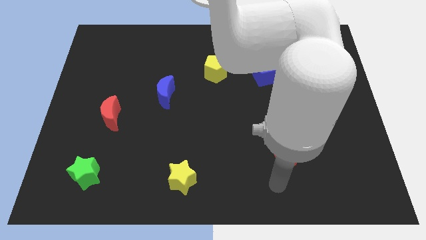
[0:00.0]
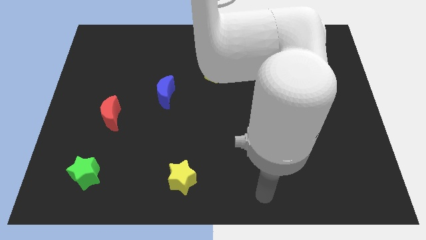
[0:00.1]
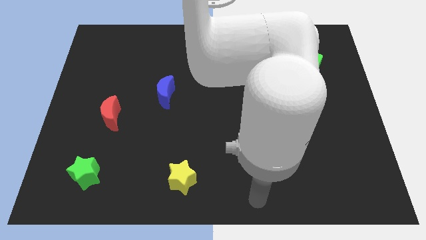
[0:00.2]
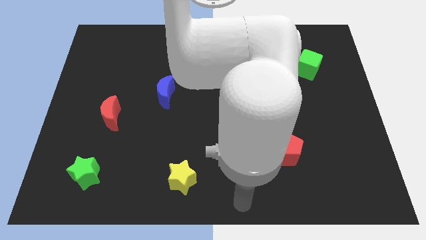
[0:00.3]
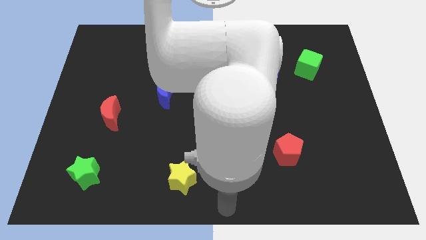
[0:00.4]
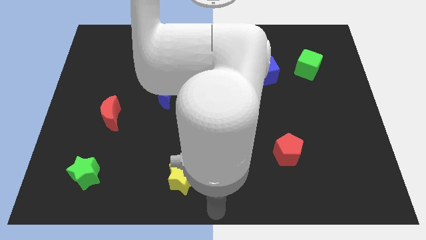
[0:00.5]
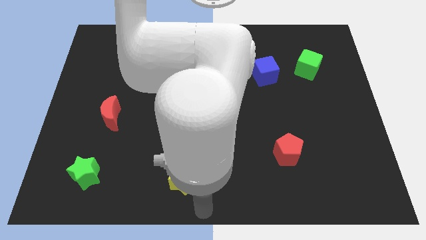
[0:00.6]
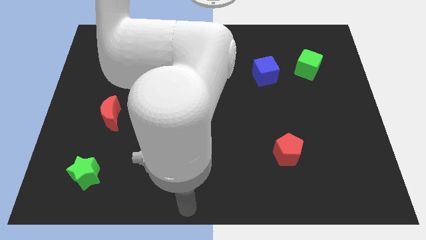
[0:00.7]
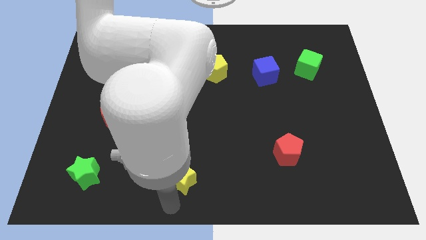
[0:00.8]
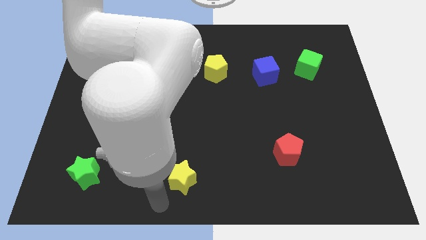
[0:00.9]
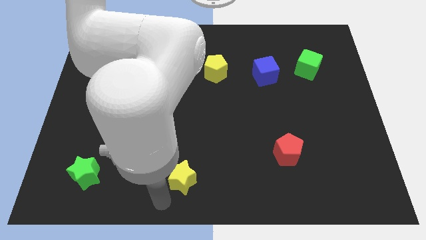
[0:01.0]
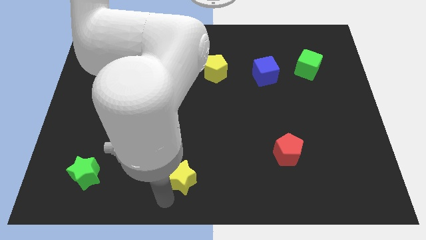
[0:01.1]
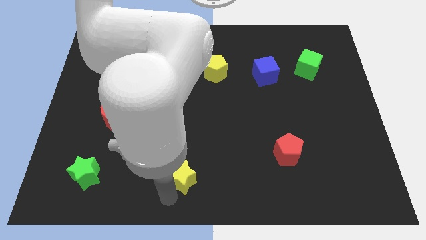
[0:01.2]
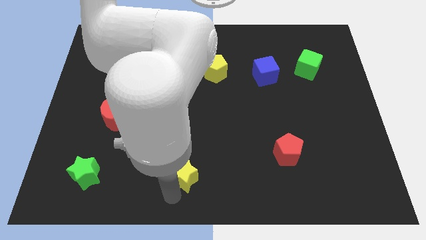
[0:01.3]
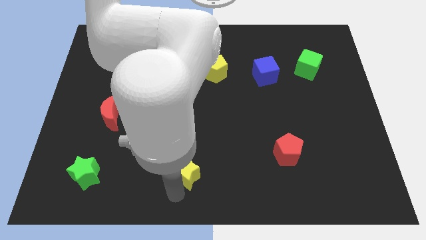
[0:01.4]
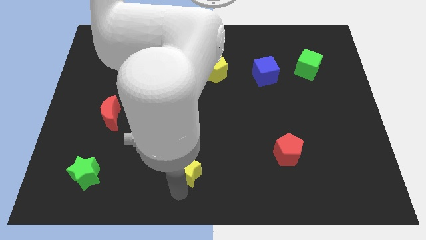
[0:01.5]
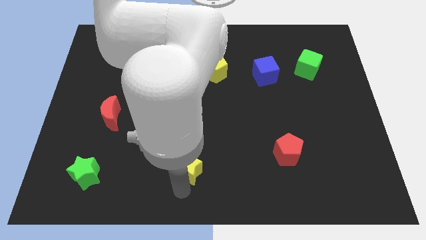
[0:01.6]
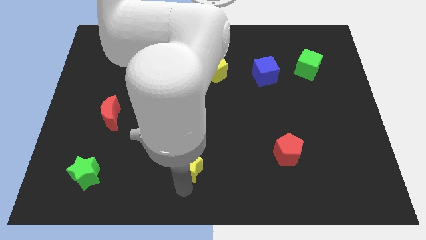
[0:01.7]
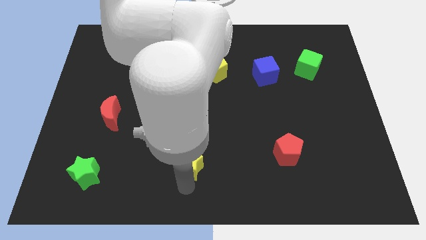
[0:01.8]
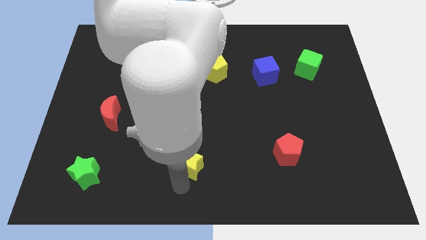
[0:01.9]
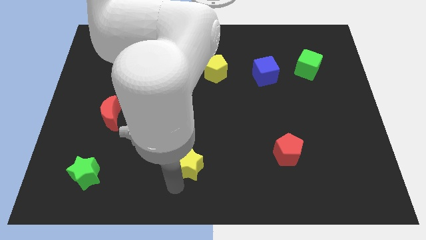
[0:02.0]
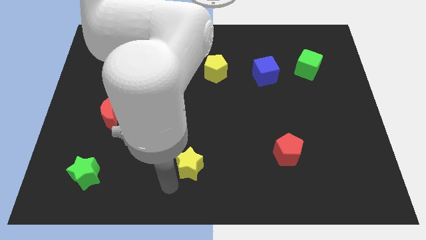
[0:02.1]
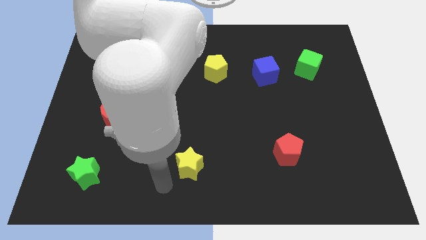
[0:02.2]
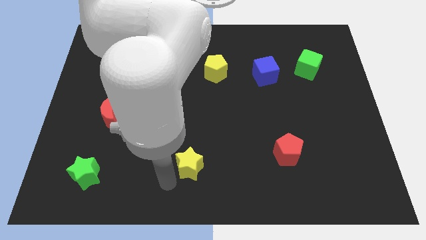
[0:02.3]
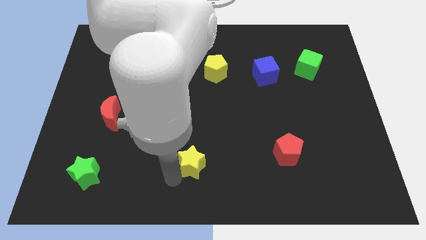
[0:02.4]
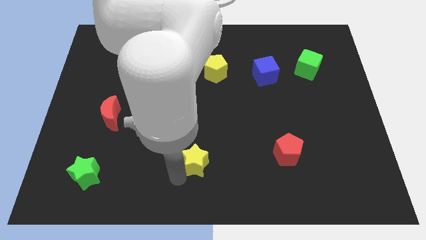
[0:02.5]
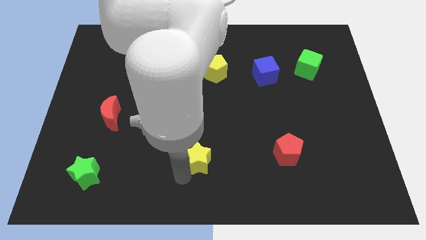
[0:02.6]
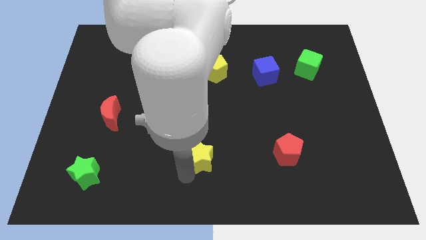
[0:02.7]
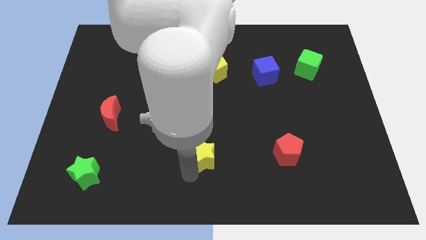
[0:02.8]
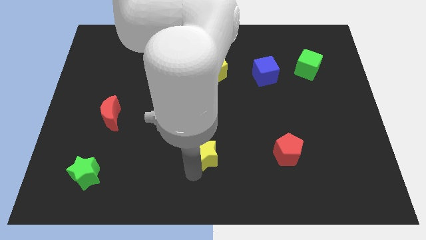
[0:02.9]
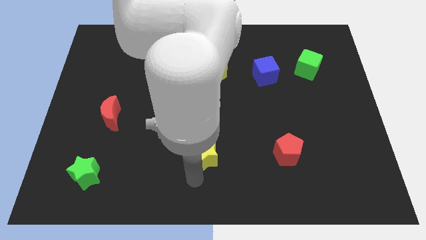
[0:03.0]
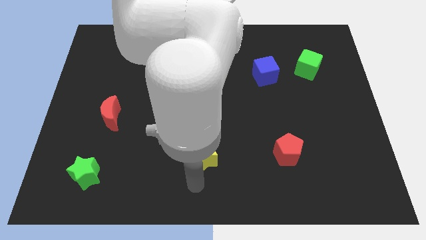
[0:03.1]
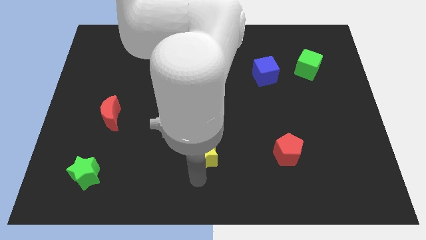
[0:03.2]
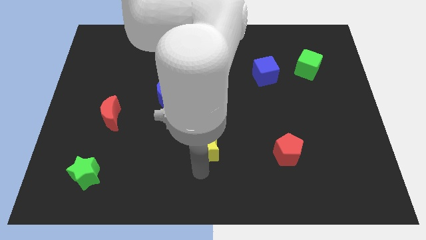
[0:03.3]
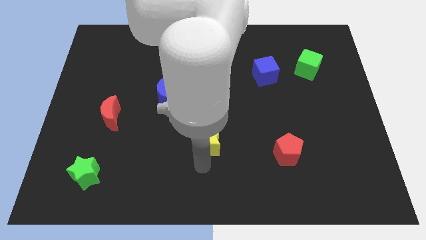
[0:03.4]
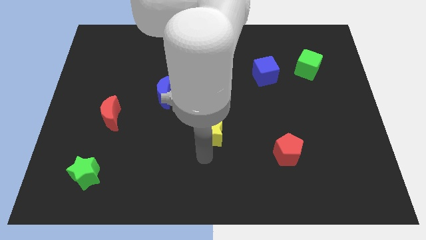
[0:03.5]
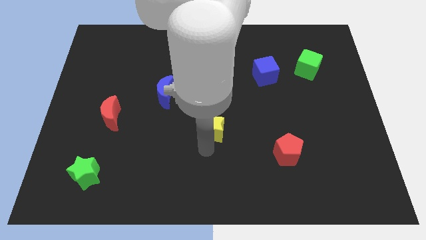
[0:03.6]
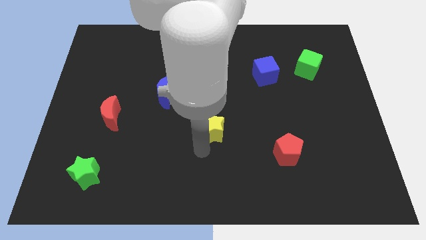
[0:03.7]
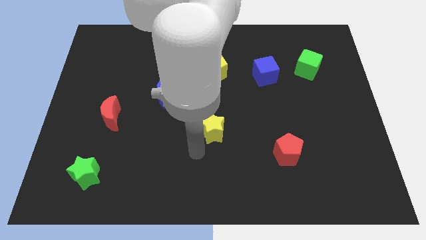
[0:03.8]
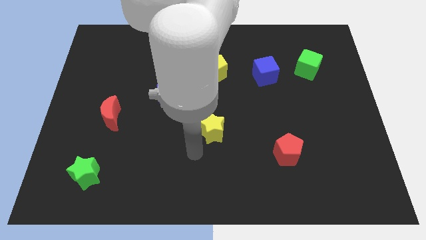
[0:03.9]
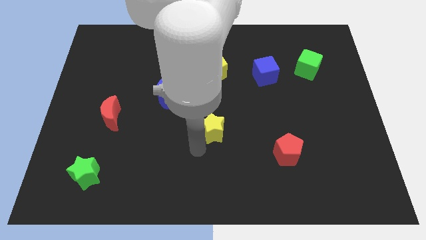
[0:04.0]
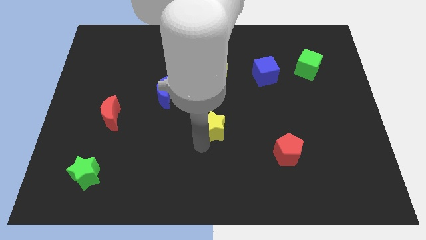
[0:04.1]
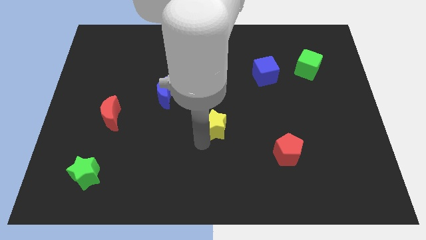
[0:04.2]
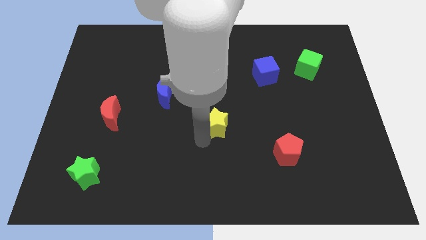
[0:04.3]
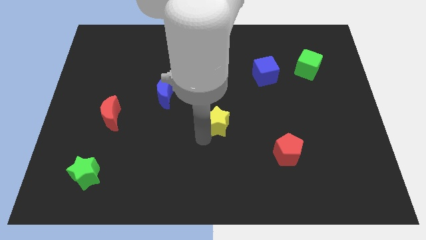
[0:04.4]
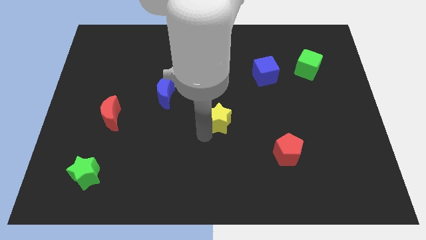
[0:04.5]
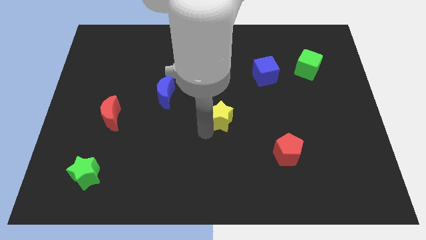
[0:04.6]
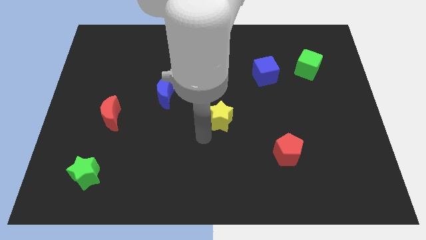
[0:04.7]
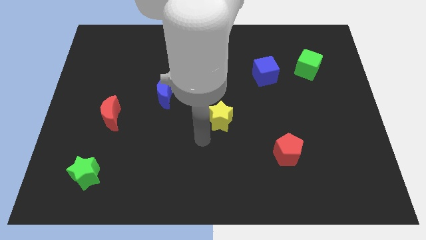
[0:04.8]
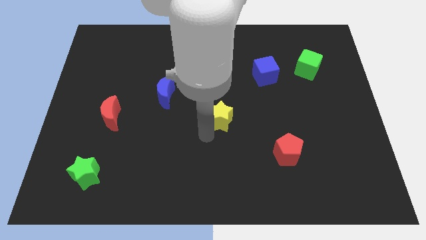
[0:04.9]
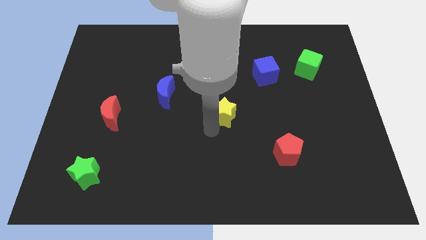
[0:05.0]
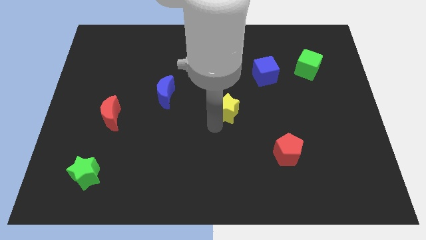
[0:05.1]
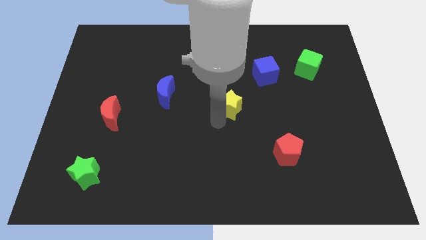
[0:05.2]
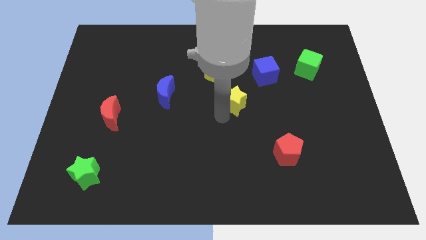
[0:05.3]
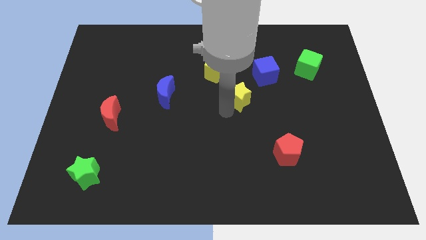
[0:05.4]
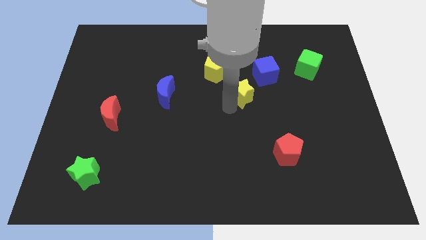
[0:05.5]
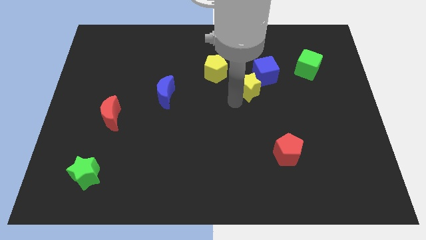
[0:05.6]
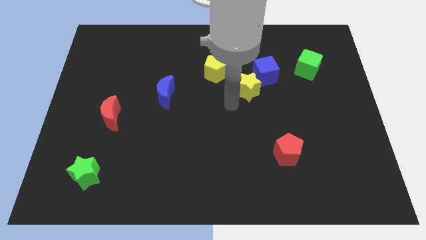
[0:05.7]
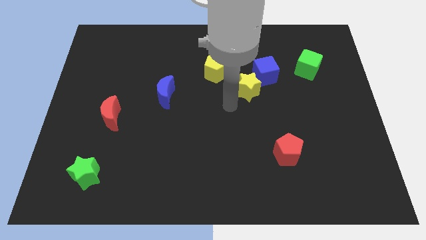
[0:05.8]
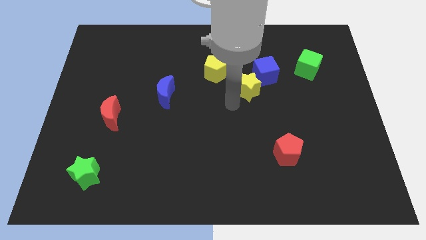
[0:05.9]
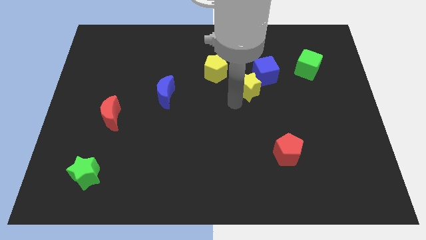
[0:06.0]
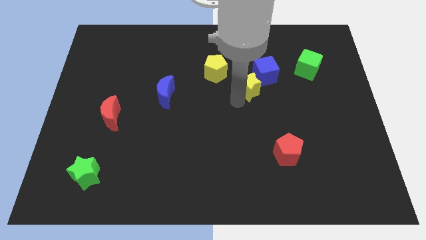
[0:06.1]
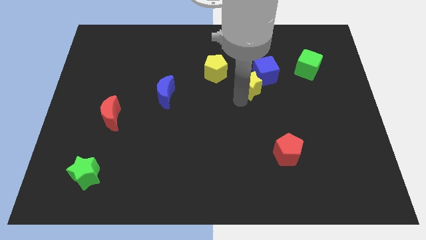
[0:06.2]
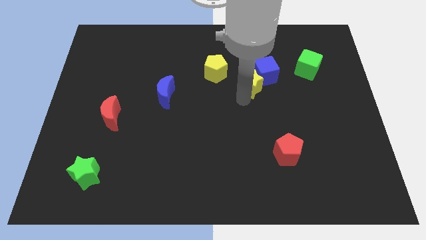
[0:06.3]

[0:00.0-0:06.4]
push the yellow star close to the blue cube

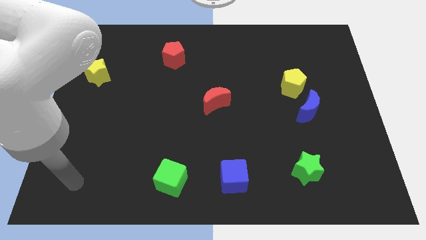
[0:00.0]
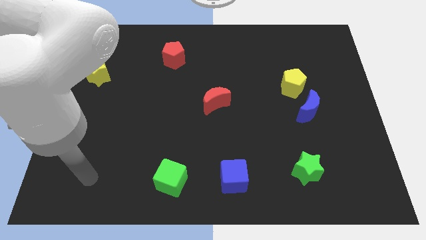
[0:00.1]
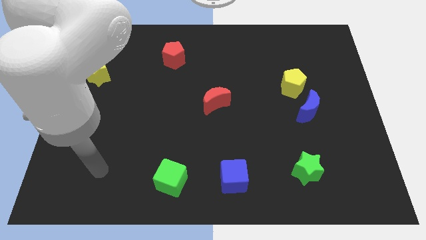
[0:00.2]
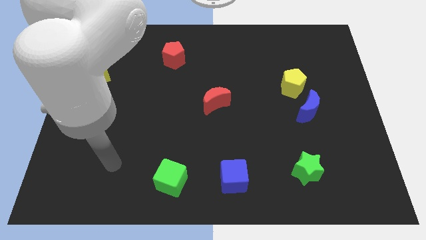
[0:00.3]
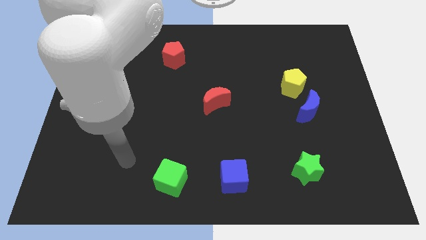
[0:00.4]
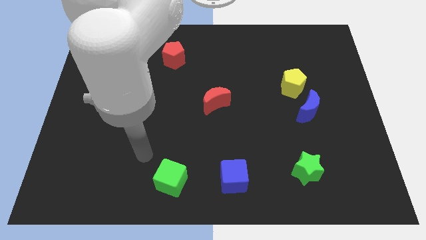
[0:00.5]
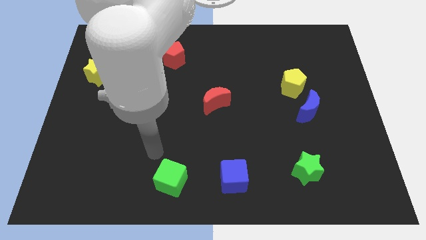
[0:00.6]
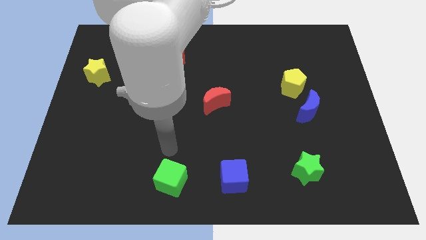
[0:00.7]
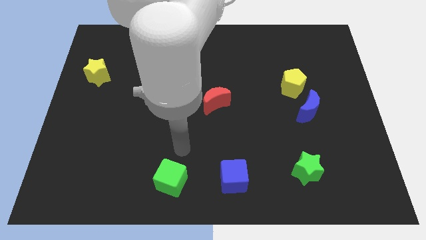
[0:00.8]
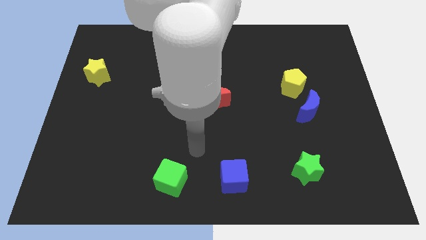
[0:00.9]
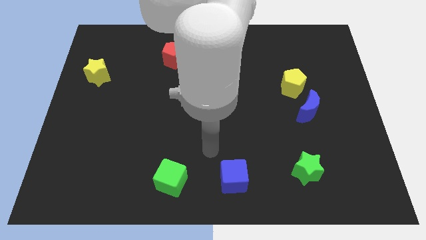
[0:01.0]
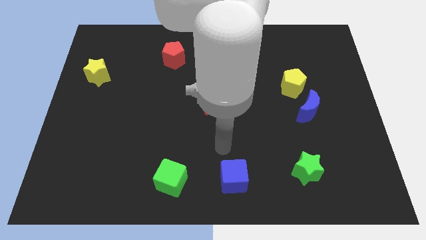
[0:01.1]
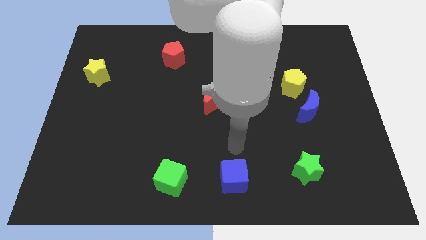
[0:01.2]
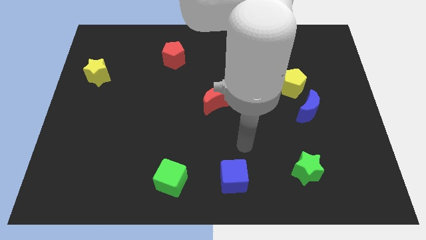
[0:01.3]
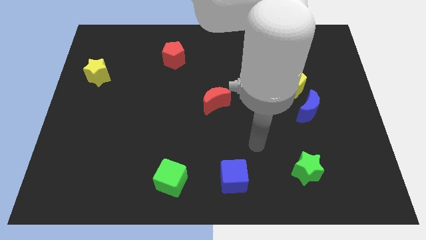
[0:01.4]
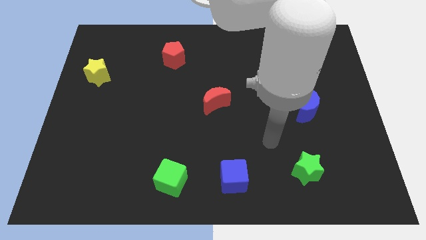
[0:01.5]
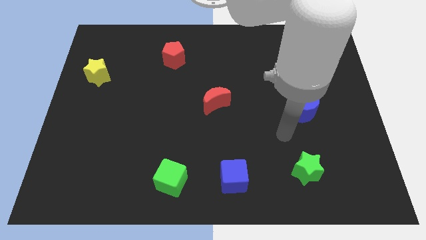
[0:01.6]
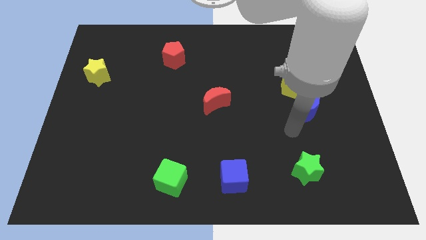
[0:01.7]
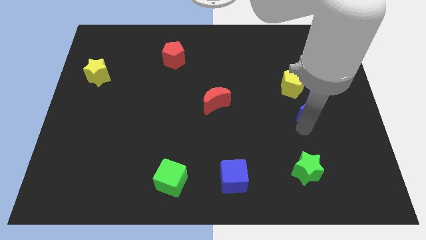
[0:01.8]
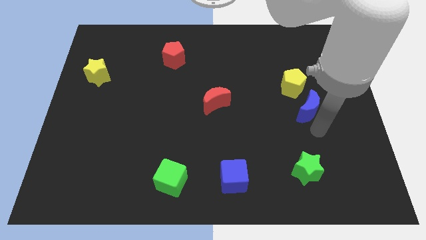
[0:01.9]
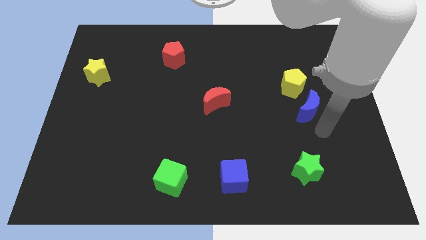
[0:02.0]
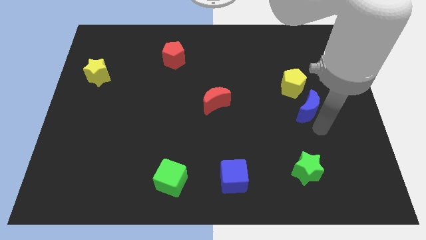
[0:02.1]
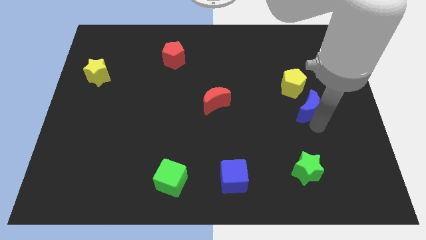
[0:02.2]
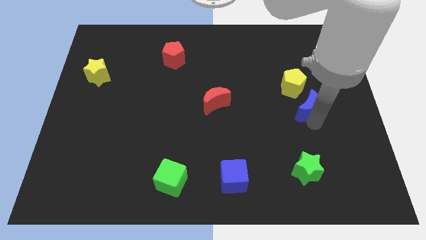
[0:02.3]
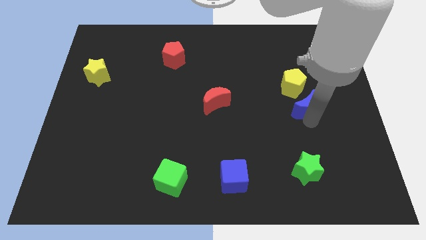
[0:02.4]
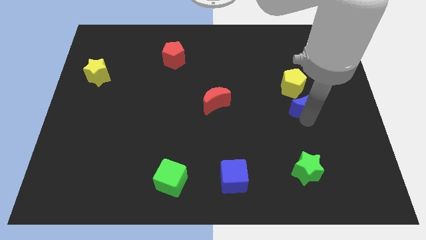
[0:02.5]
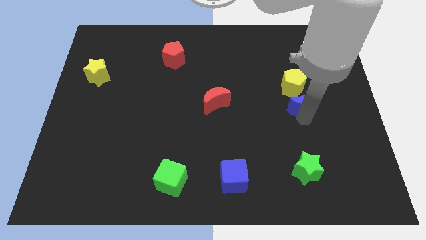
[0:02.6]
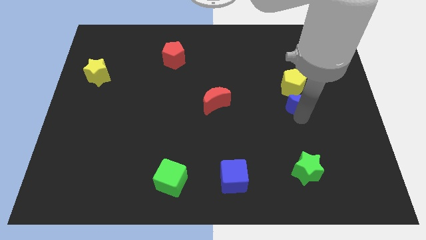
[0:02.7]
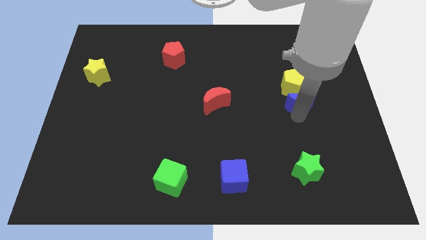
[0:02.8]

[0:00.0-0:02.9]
put the blue moon next to the yellow pentagon
